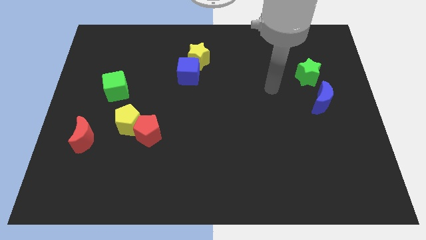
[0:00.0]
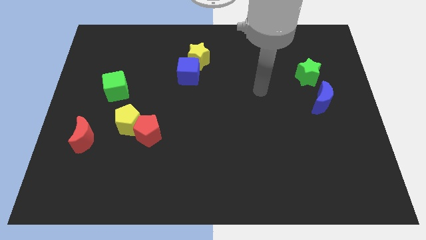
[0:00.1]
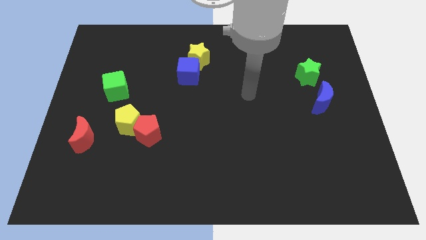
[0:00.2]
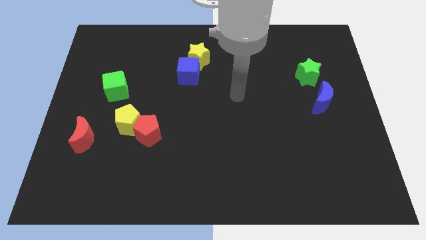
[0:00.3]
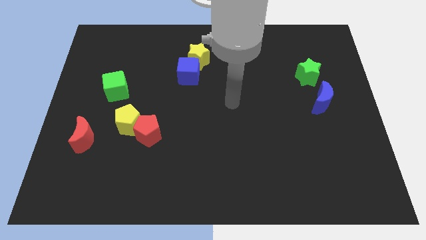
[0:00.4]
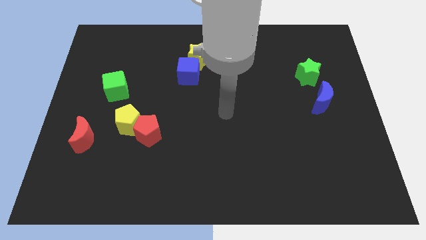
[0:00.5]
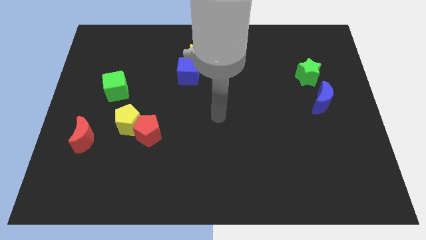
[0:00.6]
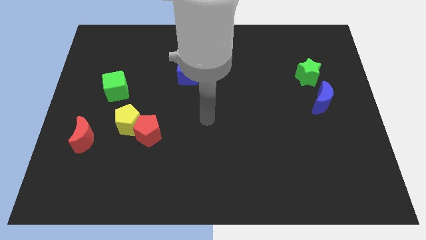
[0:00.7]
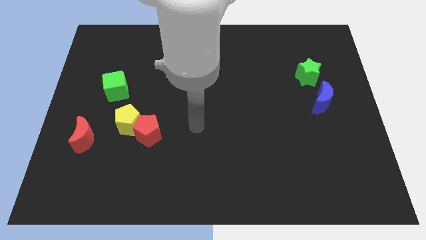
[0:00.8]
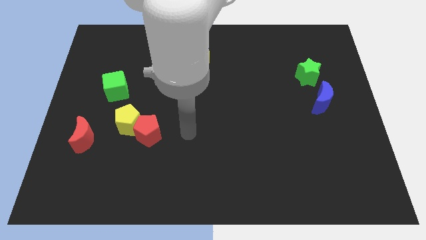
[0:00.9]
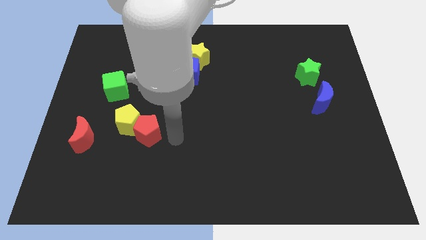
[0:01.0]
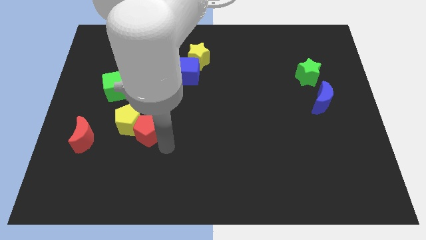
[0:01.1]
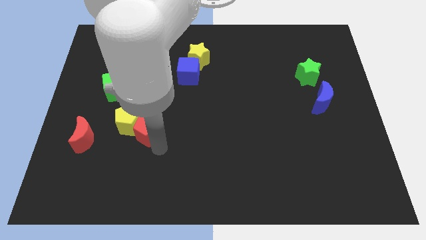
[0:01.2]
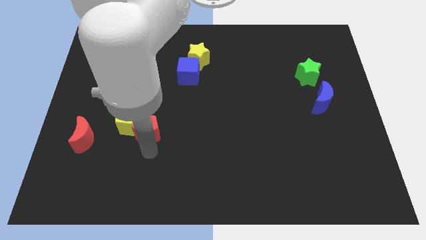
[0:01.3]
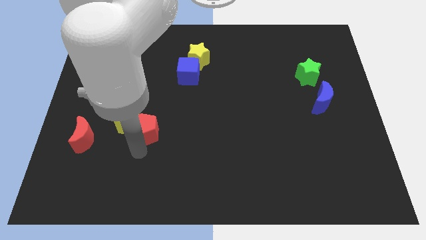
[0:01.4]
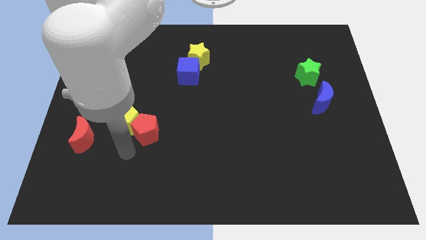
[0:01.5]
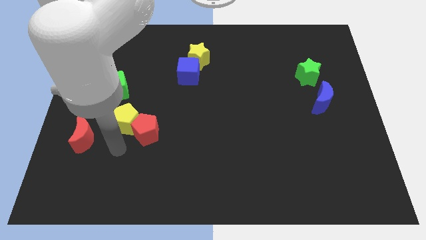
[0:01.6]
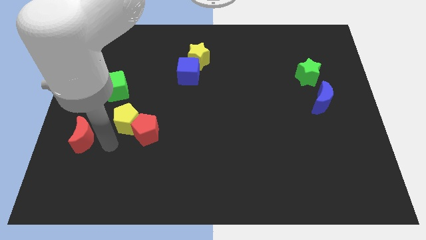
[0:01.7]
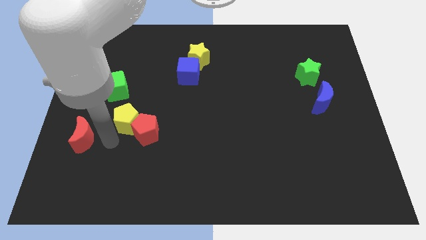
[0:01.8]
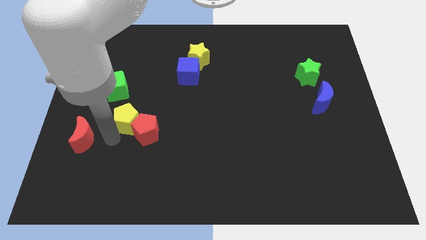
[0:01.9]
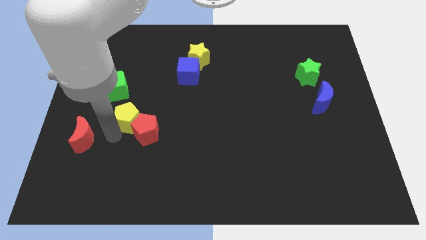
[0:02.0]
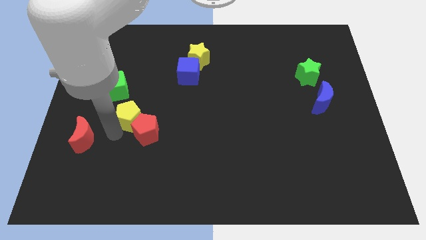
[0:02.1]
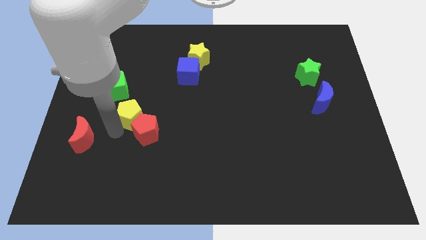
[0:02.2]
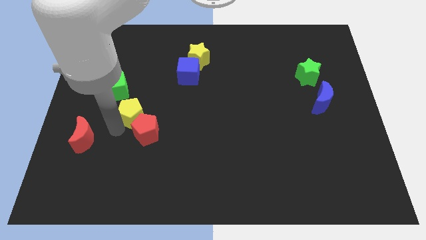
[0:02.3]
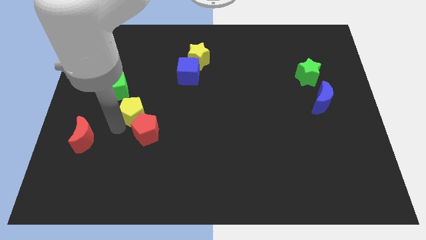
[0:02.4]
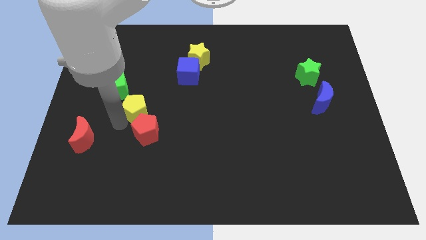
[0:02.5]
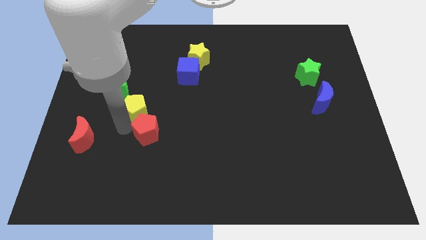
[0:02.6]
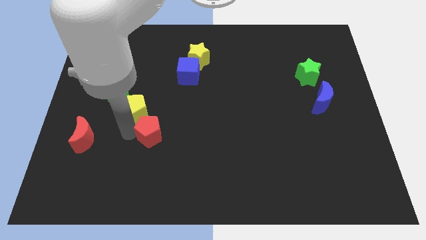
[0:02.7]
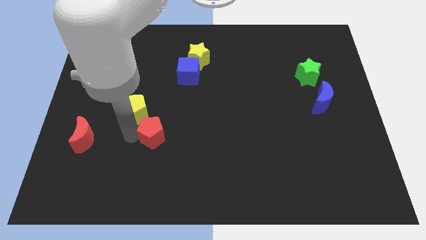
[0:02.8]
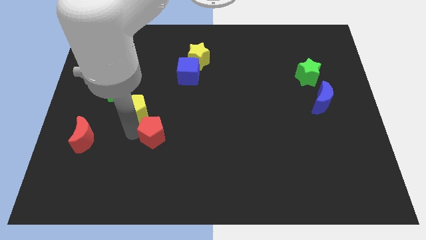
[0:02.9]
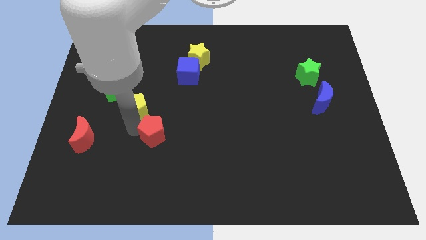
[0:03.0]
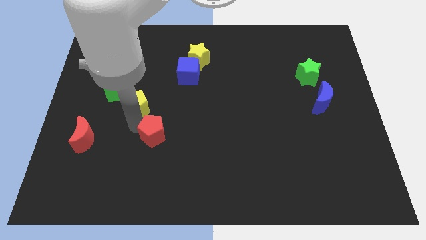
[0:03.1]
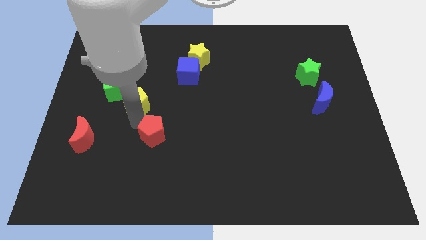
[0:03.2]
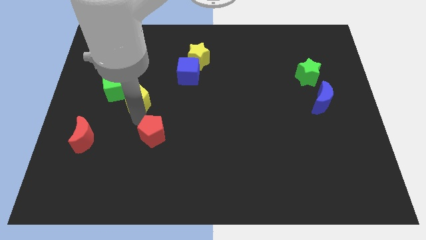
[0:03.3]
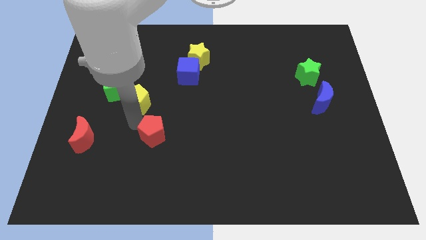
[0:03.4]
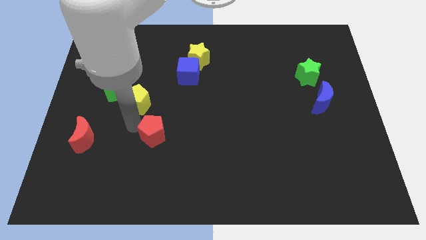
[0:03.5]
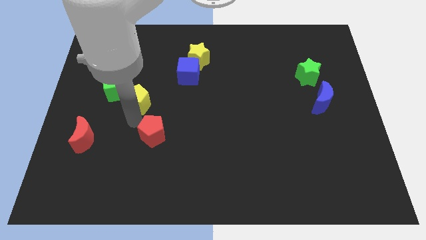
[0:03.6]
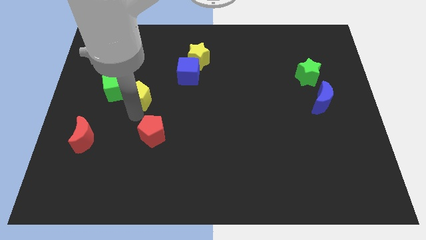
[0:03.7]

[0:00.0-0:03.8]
move the yellow pentagon a bit up

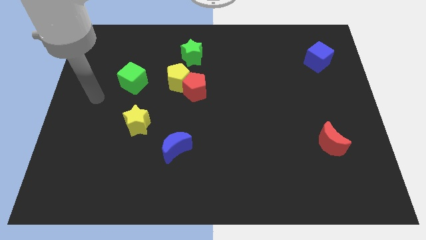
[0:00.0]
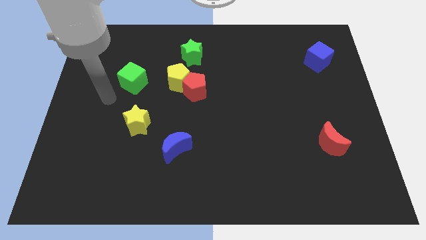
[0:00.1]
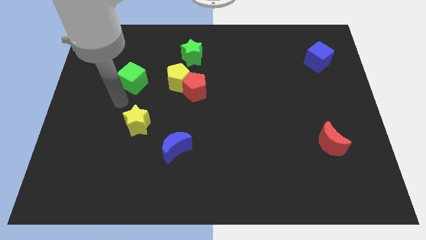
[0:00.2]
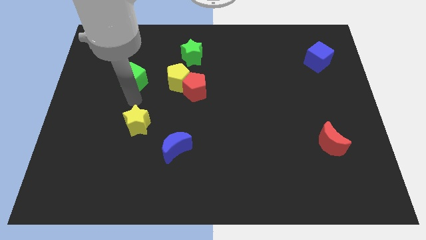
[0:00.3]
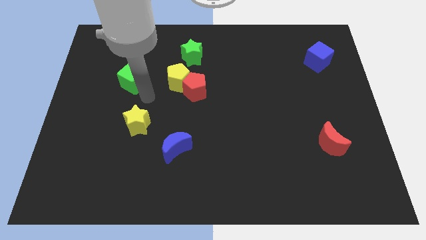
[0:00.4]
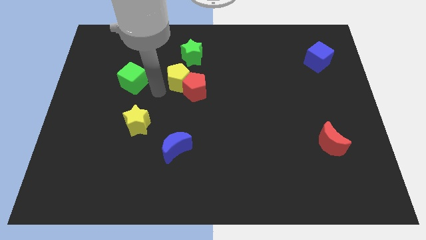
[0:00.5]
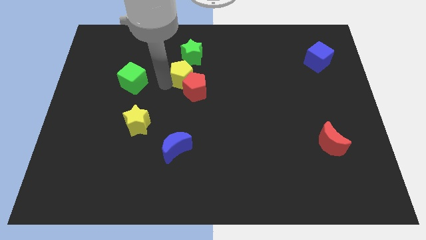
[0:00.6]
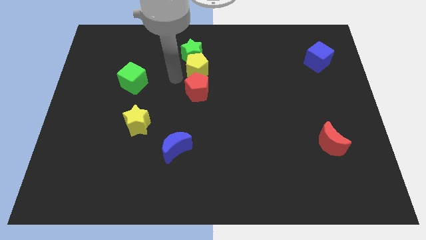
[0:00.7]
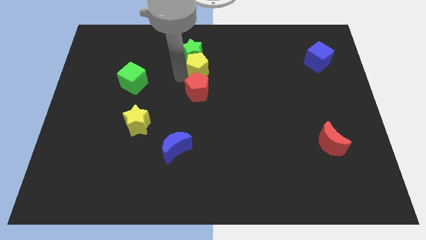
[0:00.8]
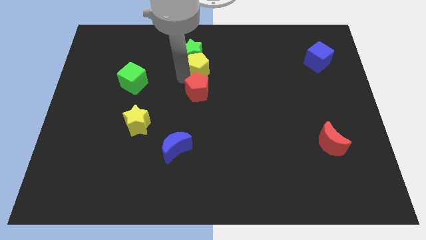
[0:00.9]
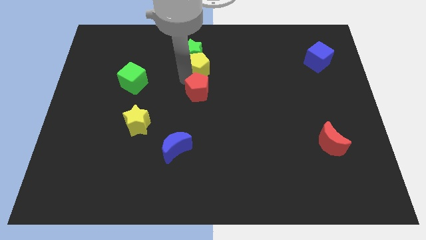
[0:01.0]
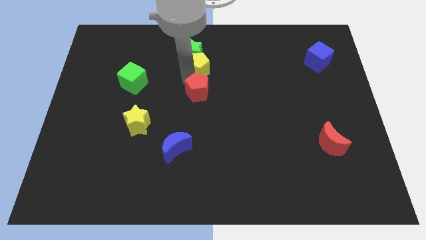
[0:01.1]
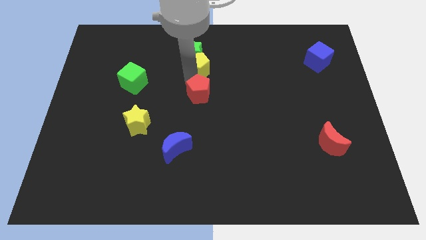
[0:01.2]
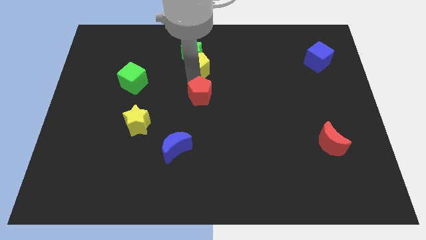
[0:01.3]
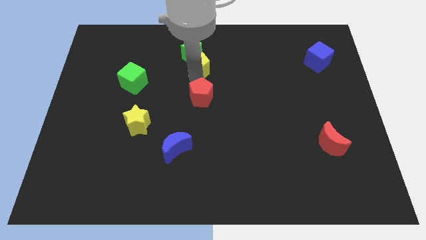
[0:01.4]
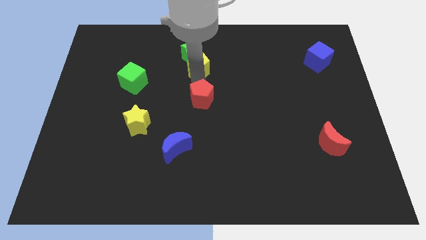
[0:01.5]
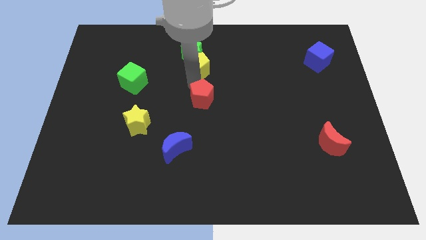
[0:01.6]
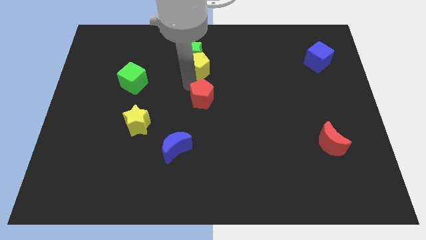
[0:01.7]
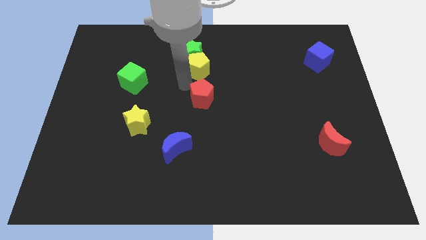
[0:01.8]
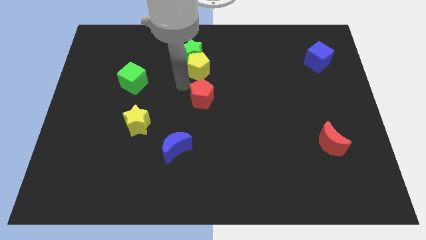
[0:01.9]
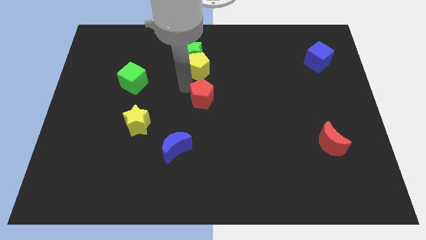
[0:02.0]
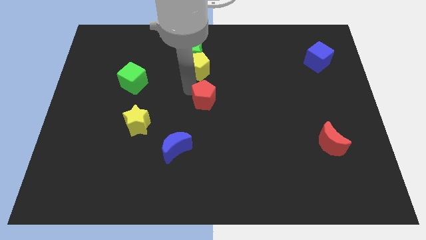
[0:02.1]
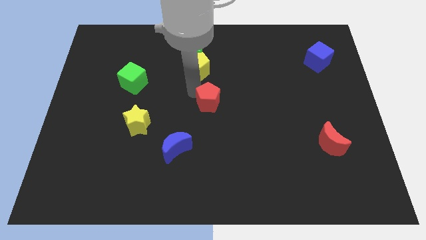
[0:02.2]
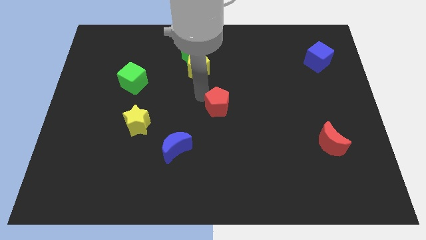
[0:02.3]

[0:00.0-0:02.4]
slightly move the red pentagon downwards and right diagonally

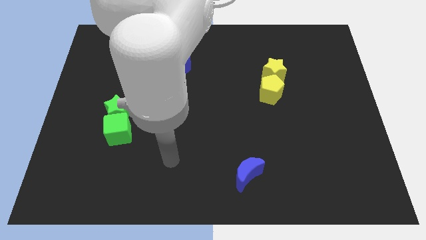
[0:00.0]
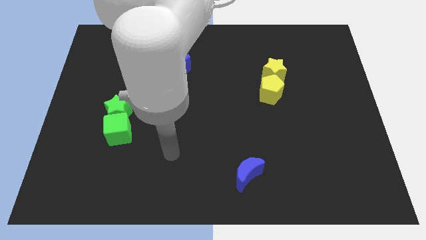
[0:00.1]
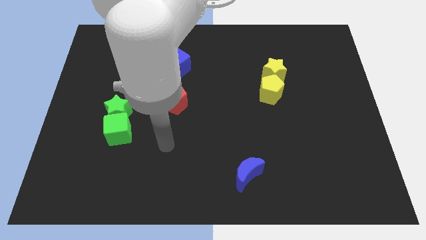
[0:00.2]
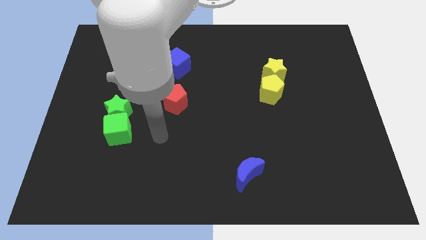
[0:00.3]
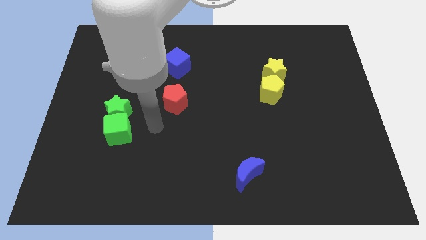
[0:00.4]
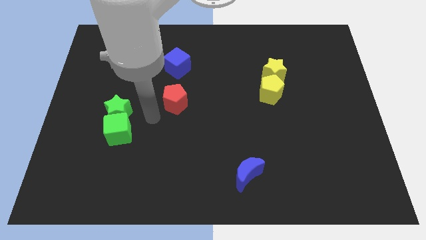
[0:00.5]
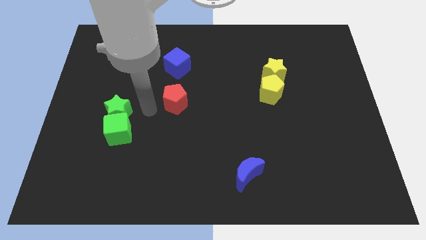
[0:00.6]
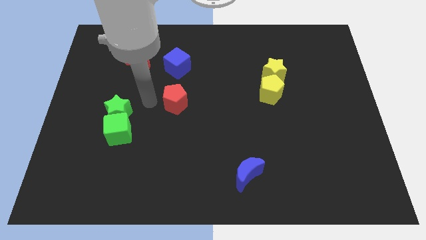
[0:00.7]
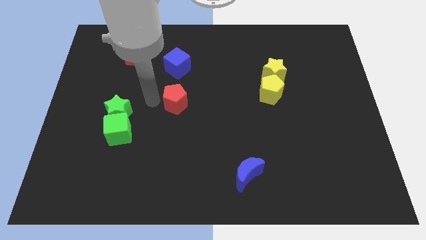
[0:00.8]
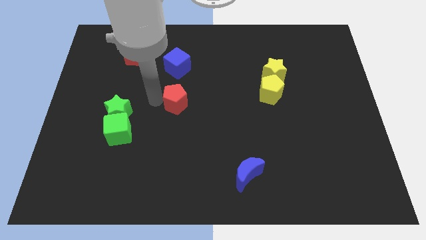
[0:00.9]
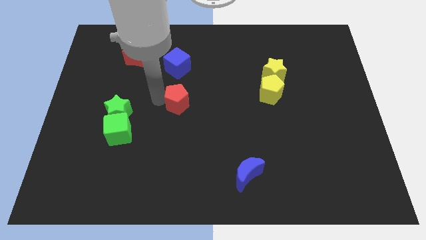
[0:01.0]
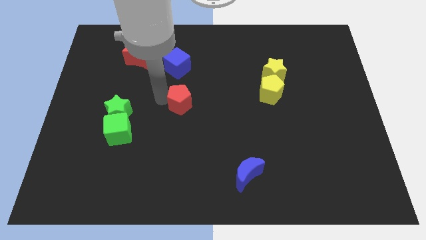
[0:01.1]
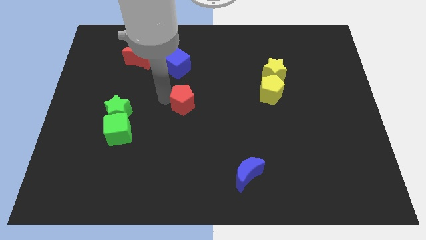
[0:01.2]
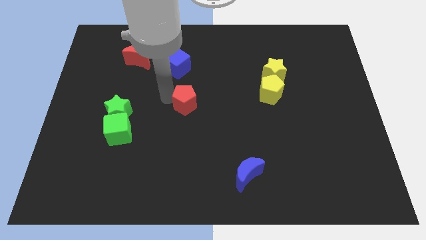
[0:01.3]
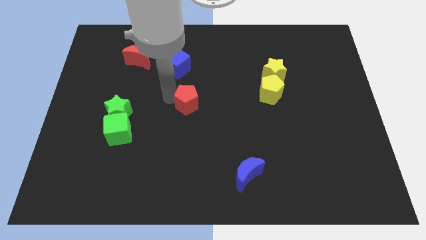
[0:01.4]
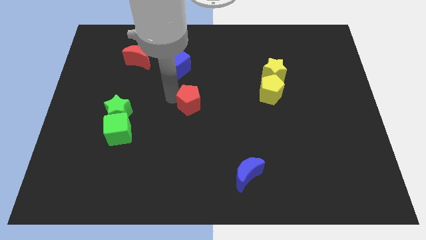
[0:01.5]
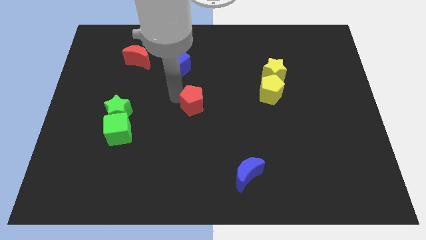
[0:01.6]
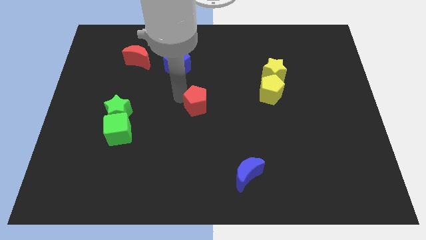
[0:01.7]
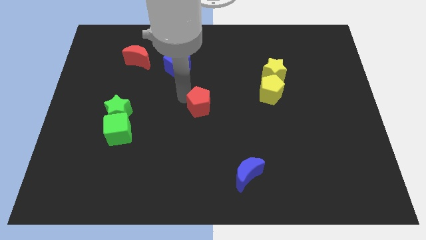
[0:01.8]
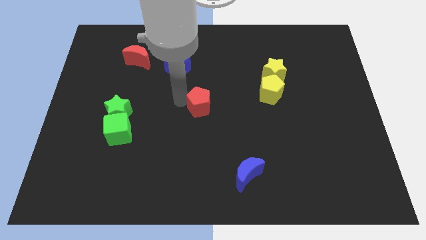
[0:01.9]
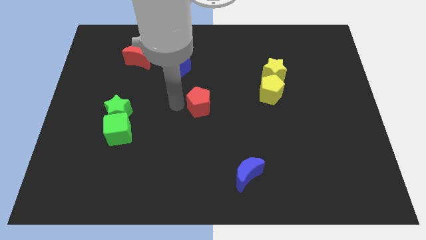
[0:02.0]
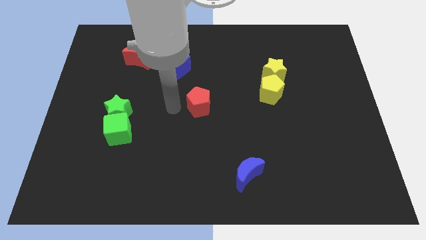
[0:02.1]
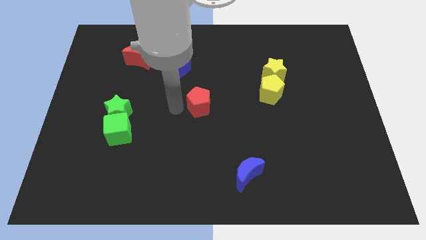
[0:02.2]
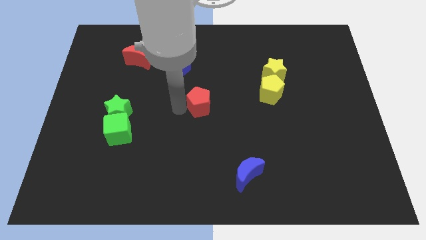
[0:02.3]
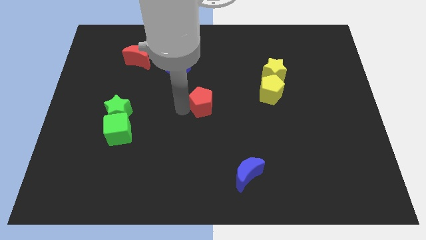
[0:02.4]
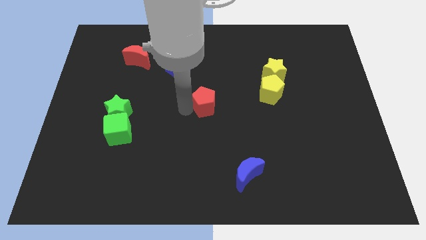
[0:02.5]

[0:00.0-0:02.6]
move the red pentagon somewhat to the right
